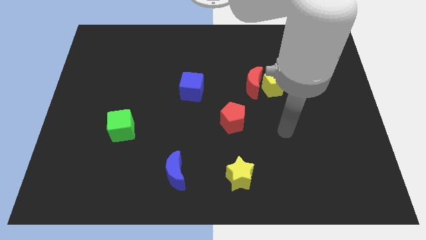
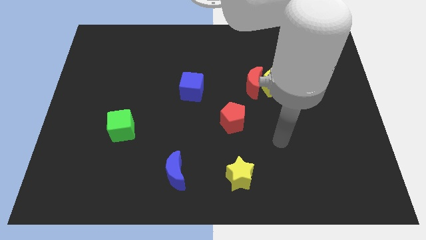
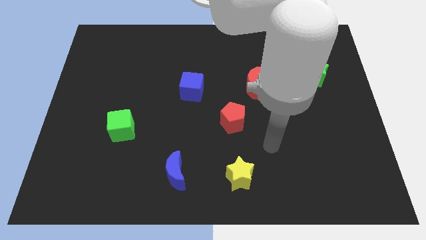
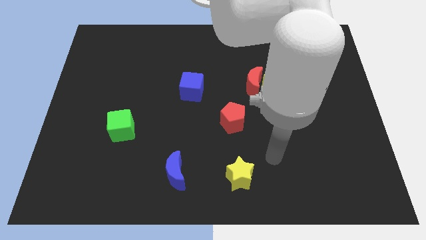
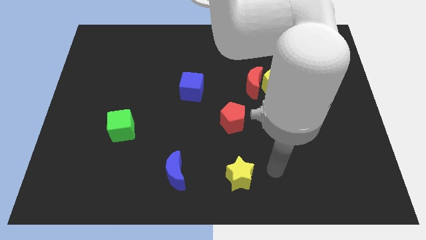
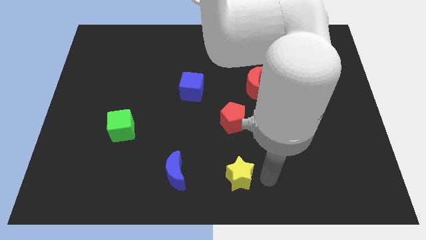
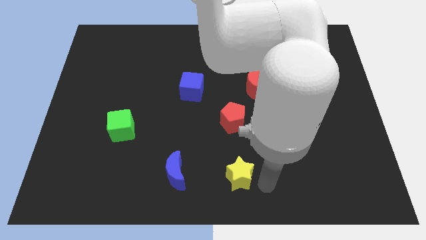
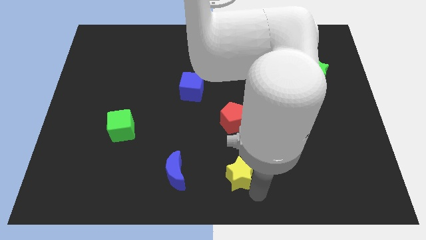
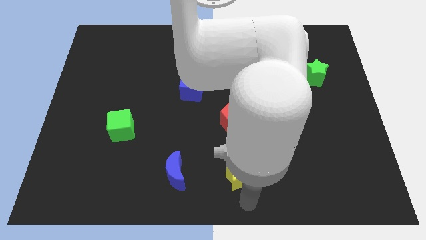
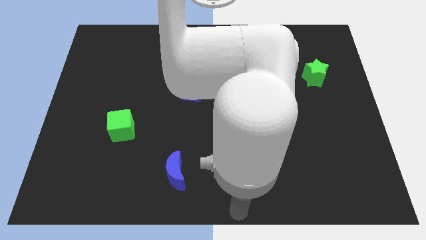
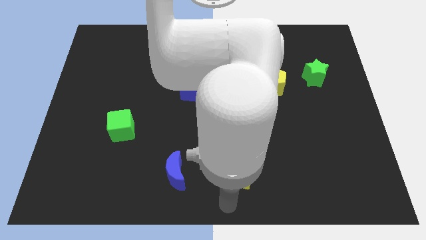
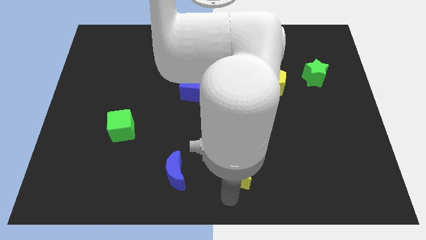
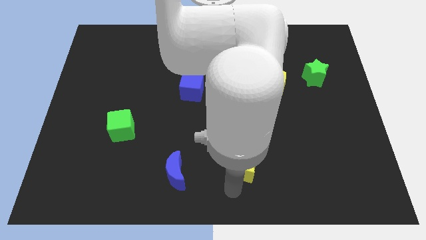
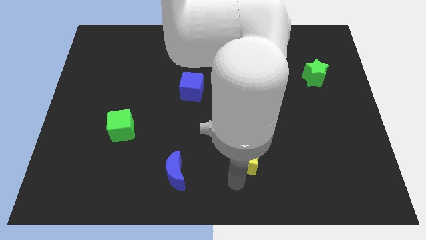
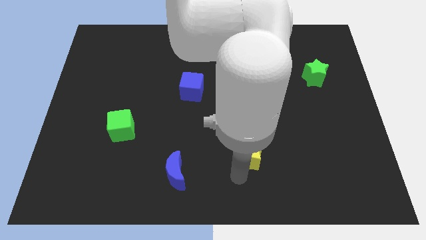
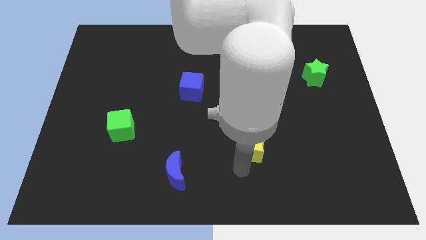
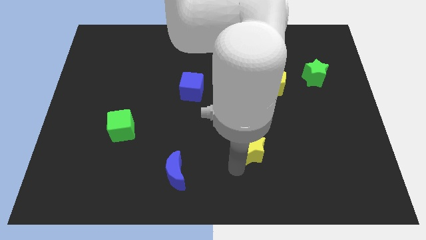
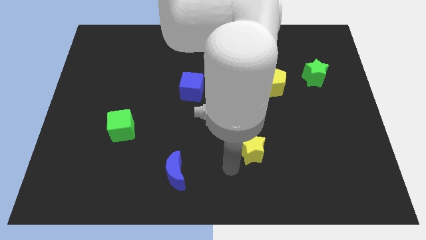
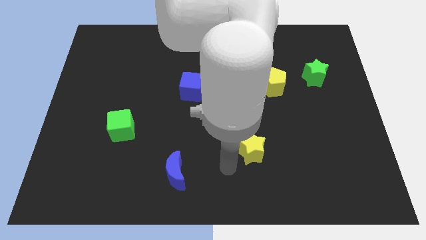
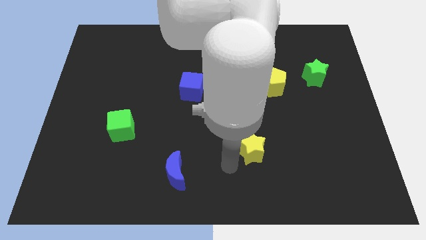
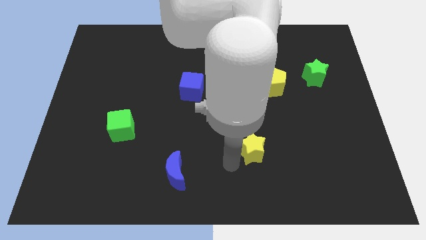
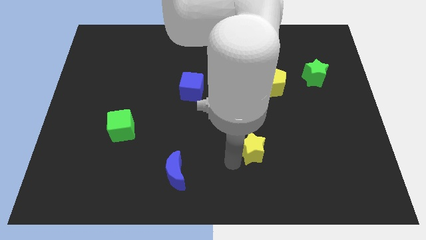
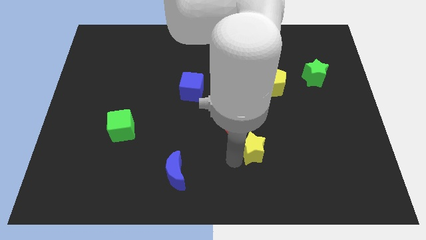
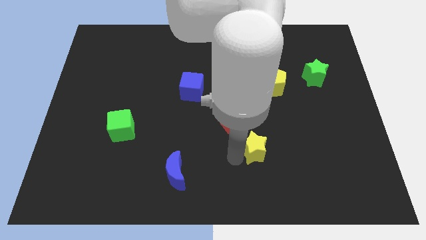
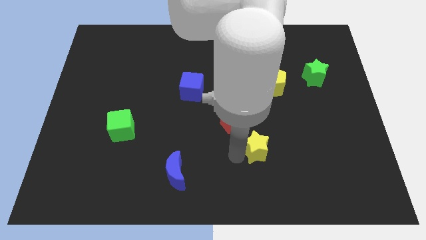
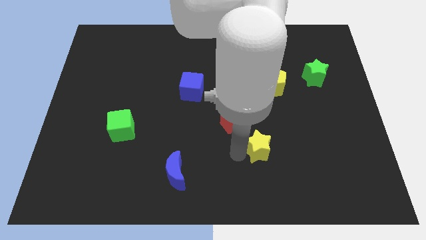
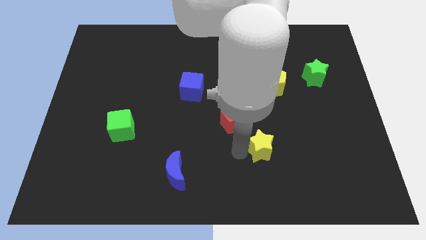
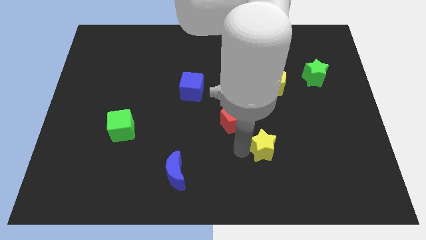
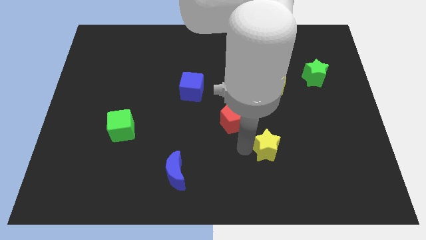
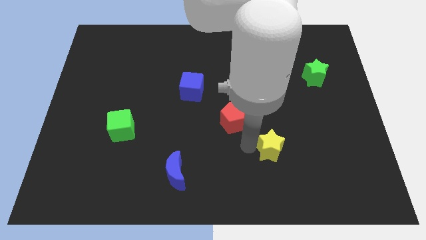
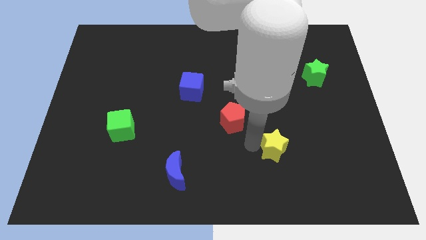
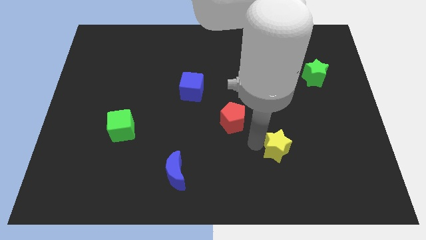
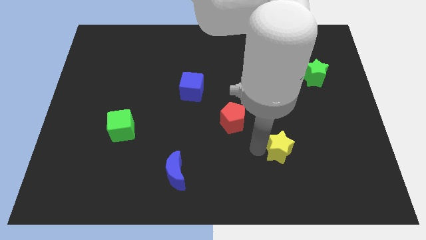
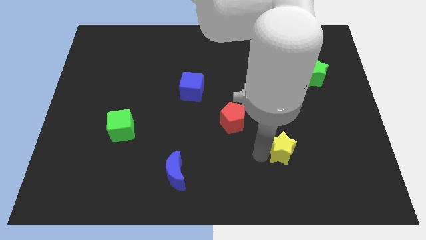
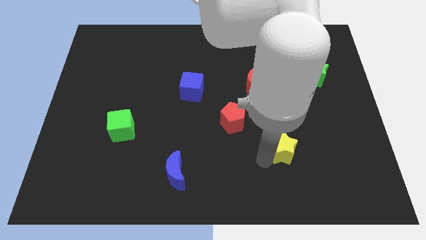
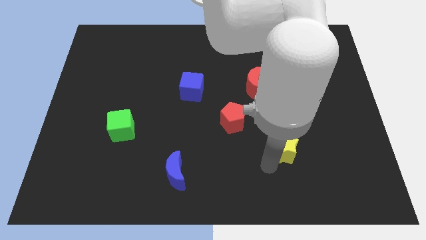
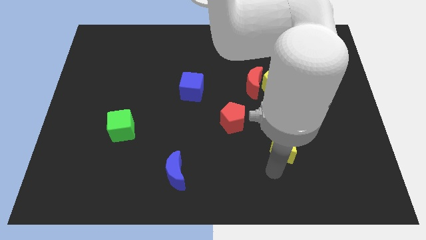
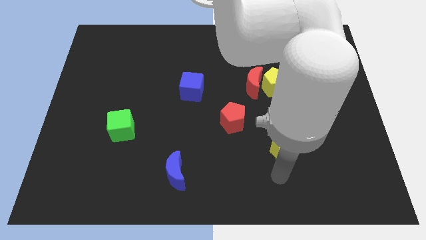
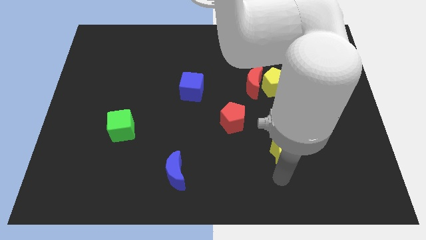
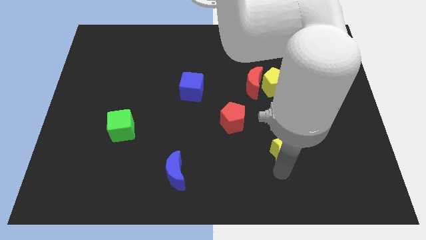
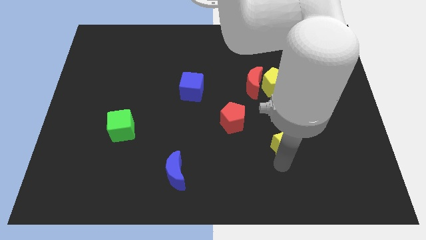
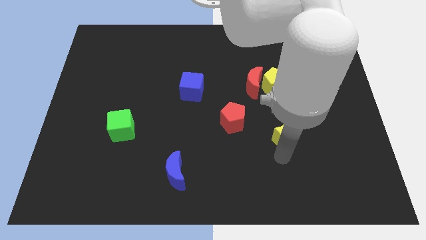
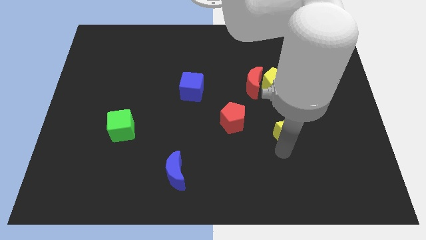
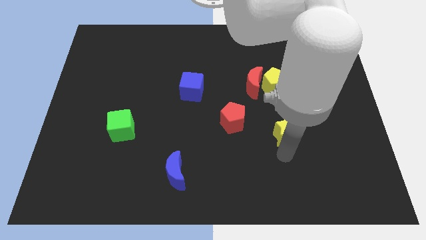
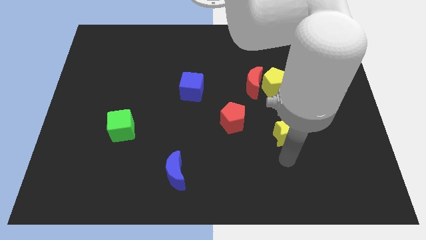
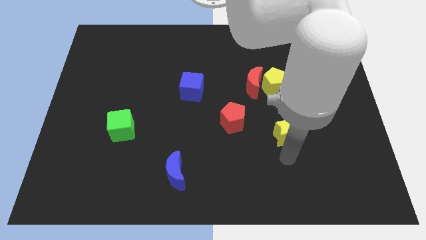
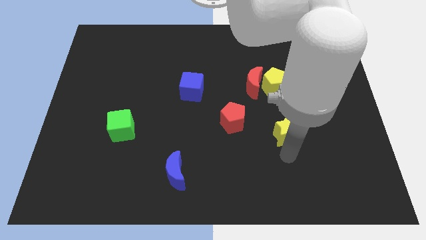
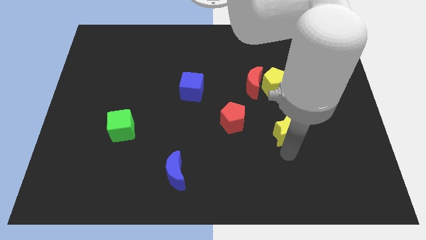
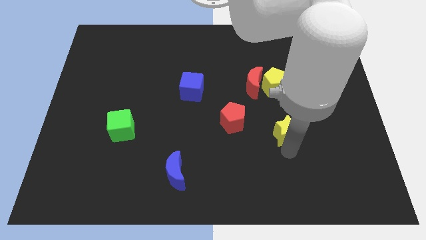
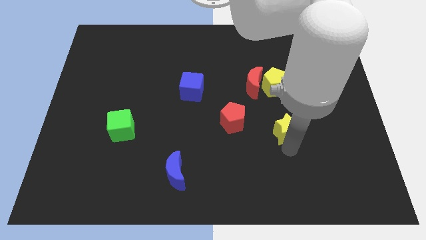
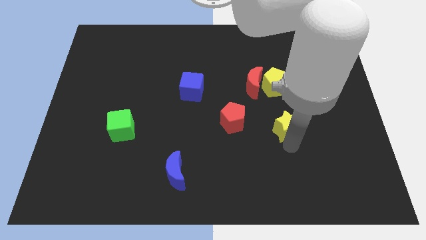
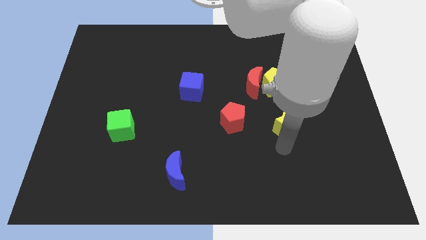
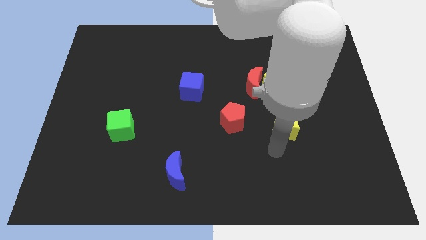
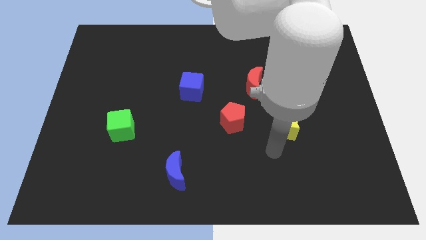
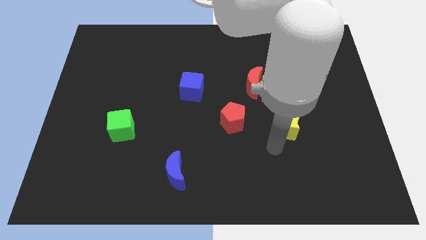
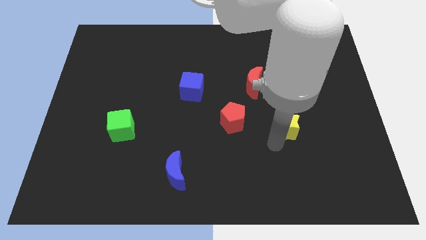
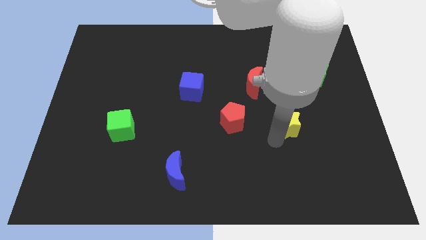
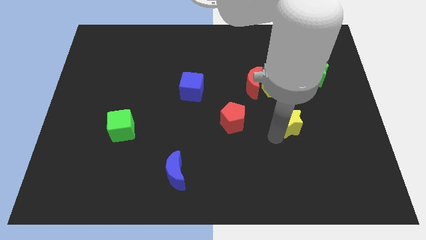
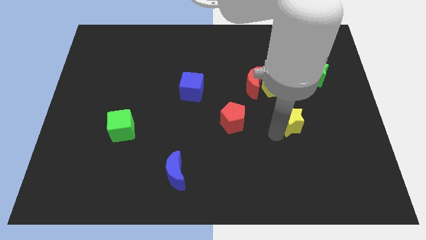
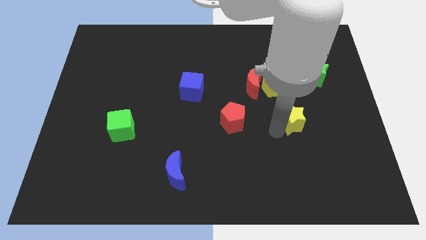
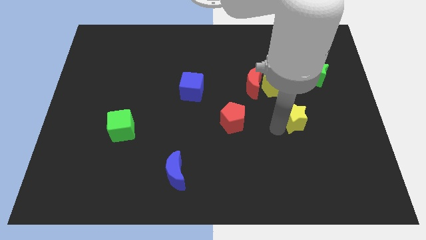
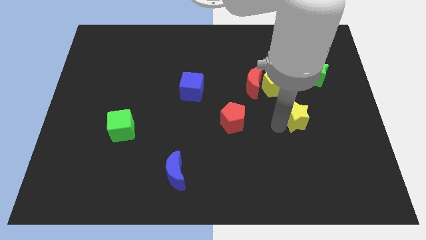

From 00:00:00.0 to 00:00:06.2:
put the yellow star diagonally down and to the right of the yellow pentagon

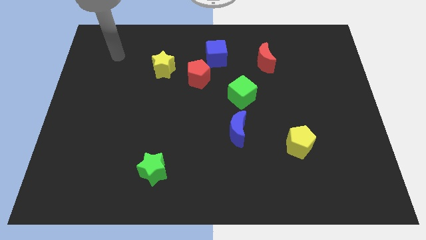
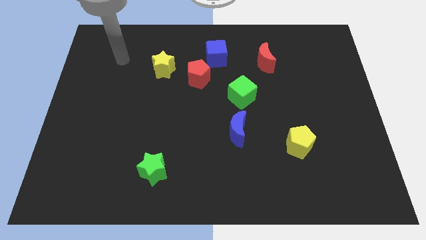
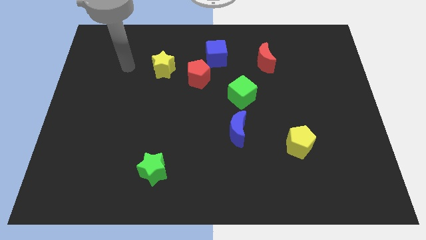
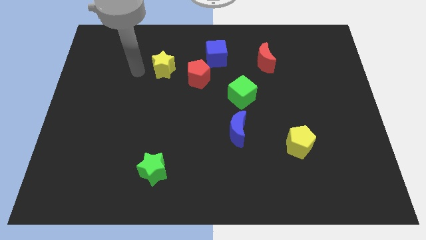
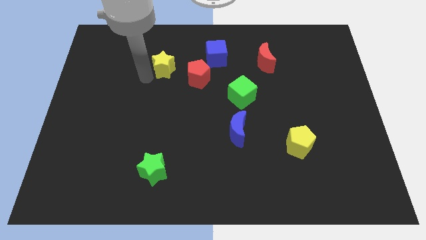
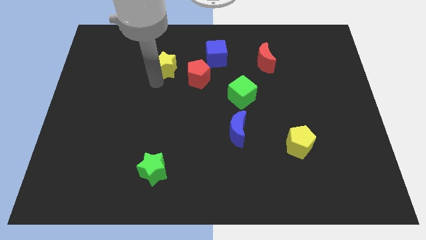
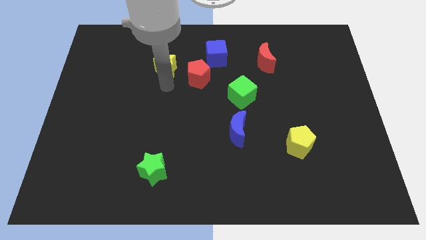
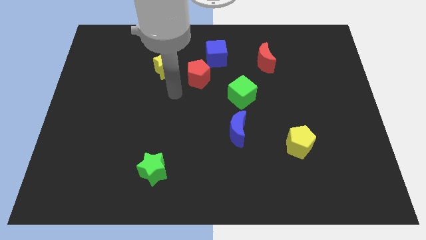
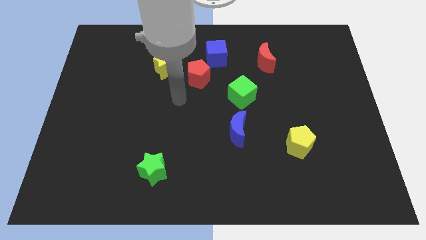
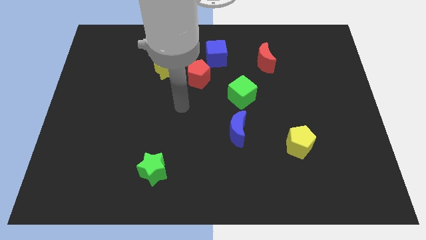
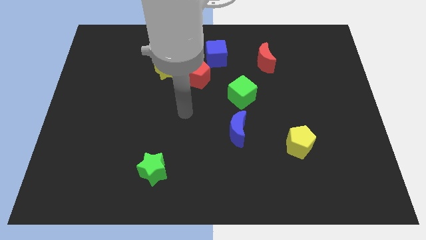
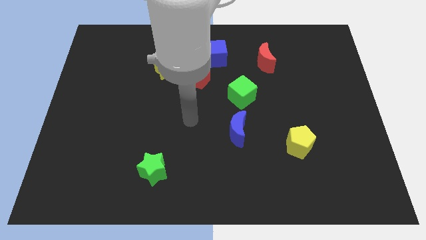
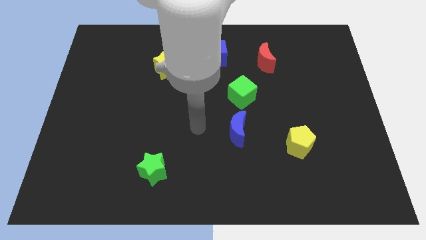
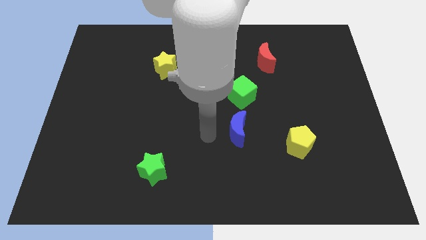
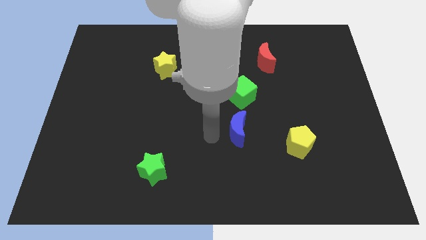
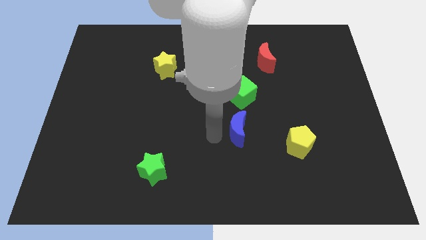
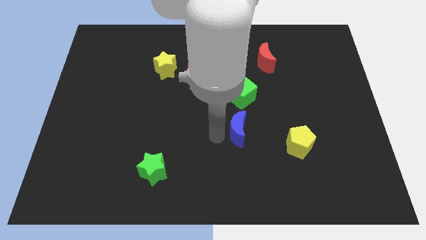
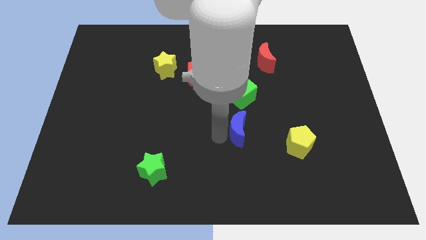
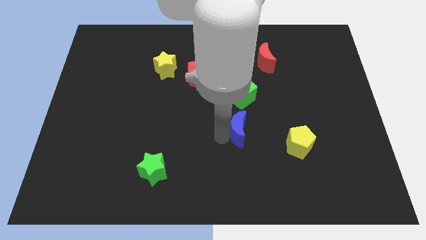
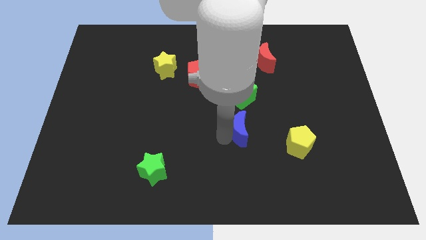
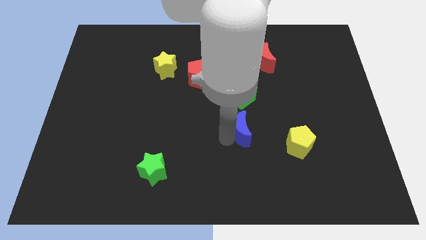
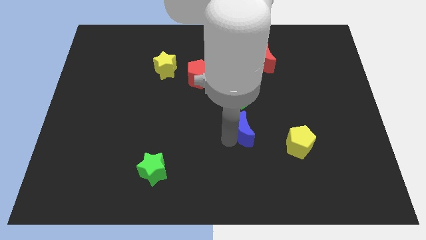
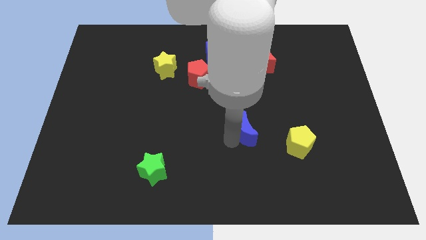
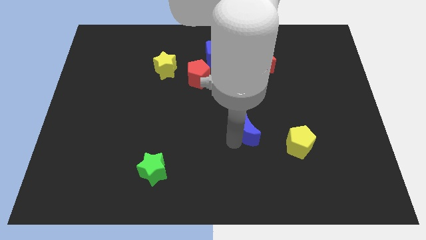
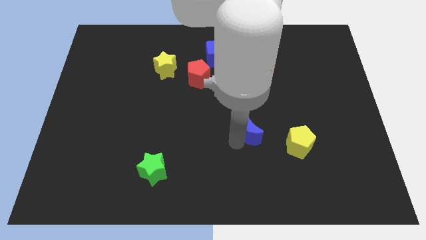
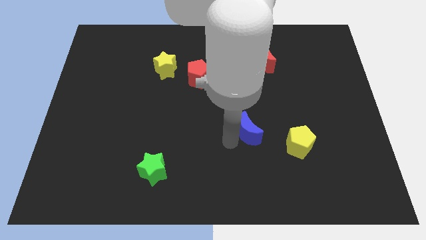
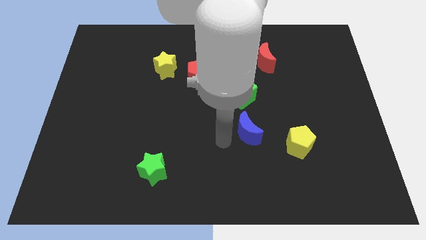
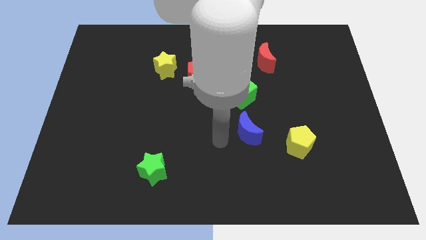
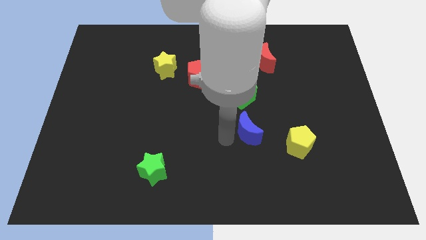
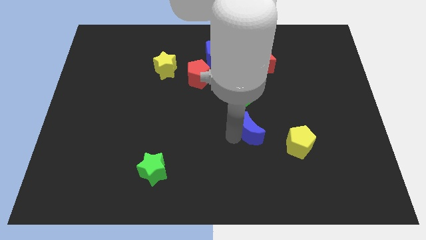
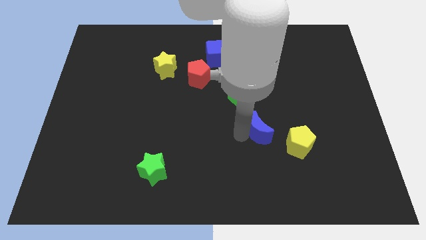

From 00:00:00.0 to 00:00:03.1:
slide the blue moon to the top left side of the yellow pentagon
